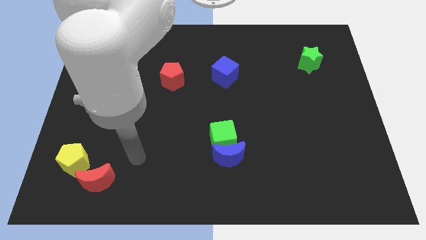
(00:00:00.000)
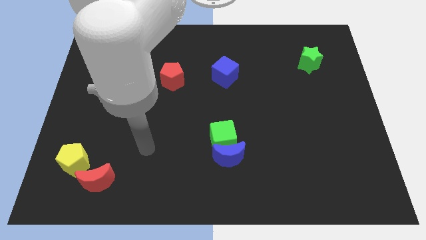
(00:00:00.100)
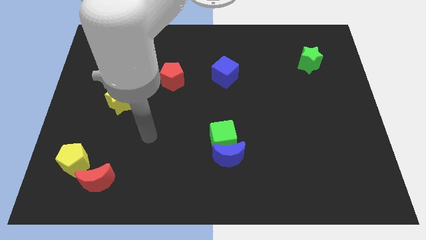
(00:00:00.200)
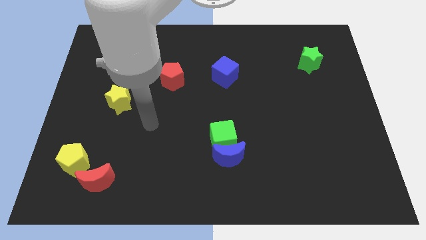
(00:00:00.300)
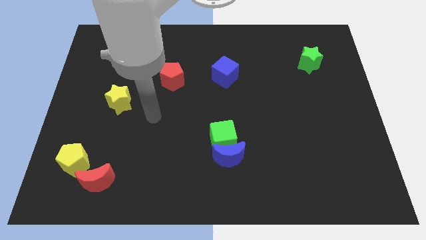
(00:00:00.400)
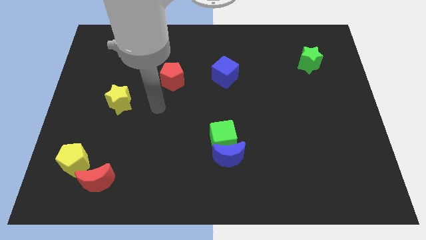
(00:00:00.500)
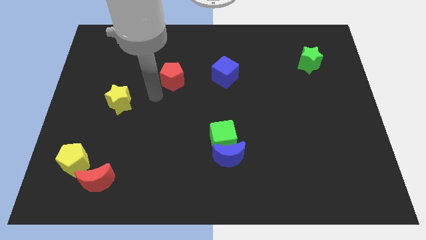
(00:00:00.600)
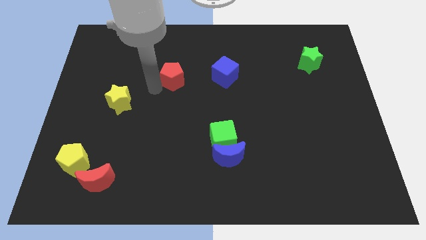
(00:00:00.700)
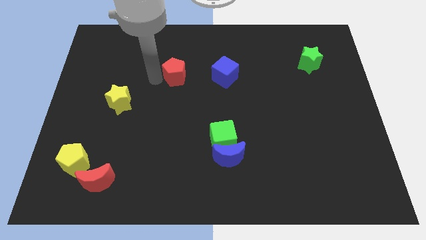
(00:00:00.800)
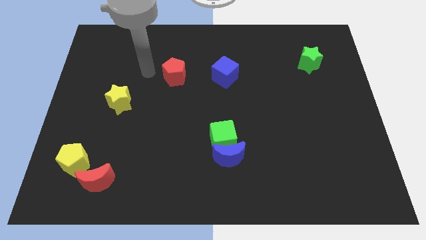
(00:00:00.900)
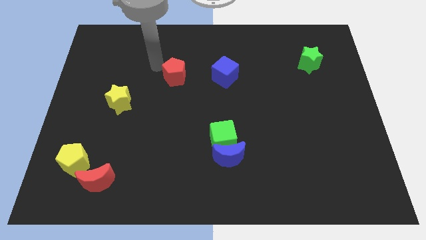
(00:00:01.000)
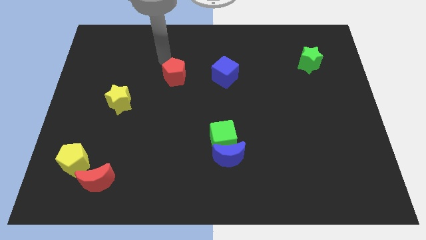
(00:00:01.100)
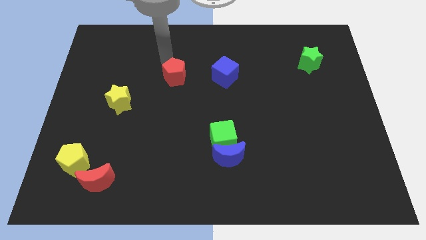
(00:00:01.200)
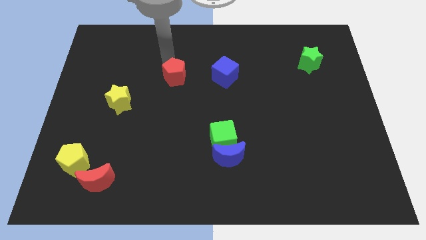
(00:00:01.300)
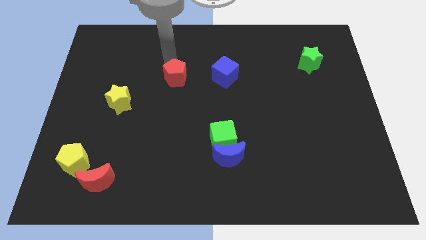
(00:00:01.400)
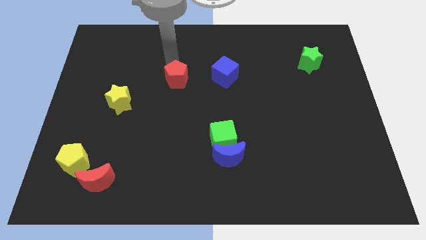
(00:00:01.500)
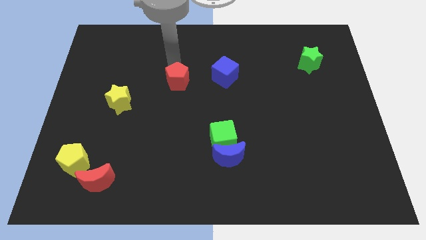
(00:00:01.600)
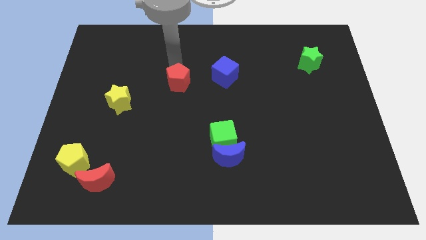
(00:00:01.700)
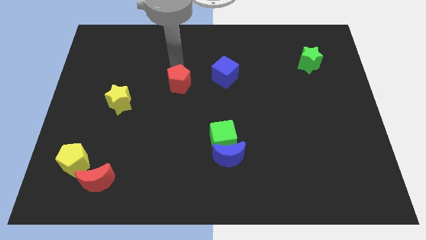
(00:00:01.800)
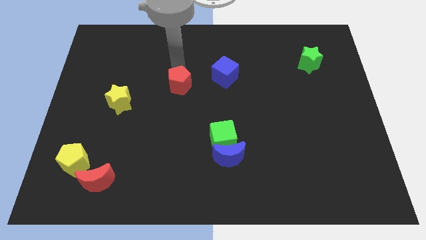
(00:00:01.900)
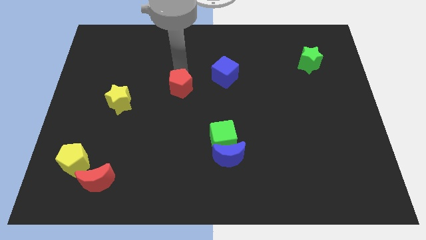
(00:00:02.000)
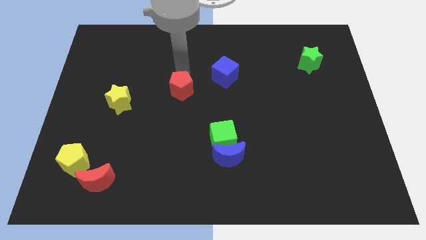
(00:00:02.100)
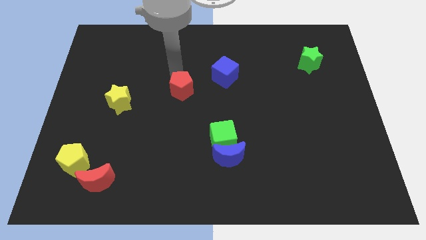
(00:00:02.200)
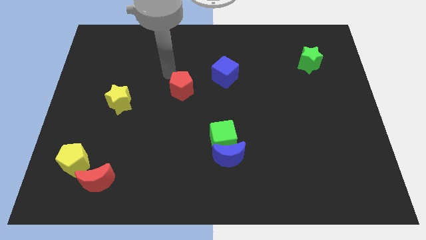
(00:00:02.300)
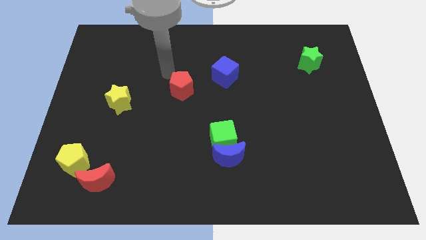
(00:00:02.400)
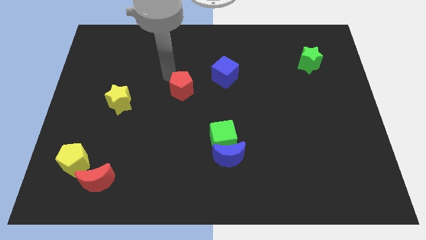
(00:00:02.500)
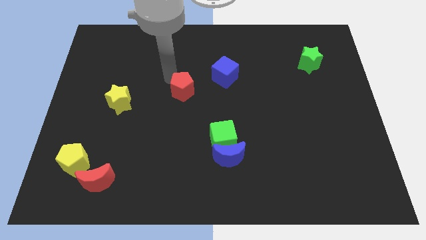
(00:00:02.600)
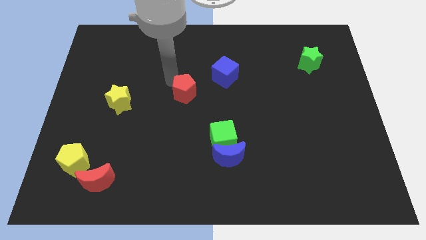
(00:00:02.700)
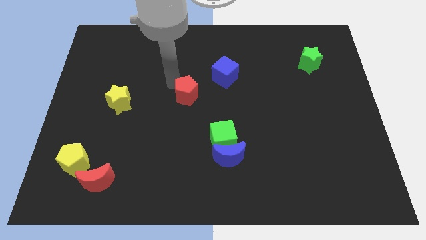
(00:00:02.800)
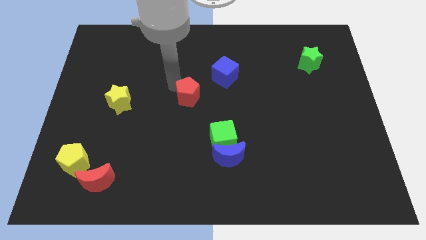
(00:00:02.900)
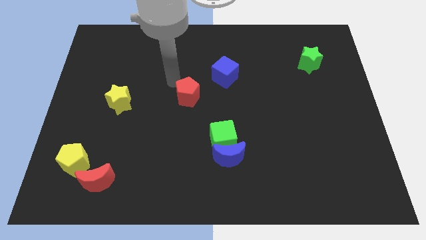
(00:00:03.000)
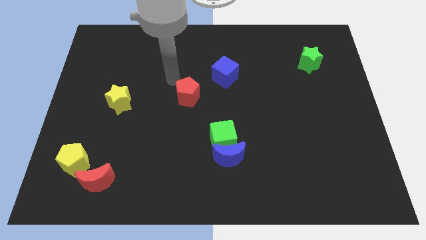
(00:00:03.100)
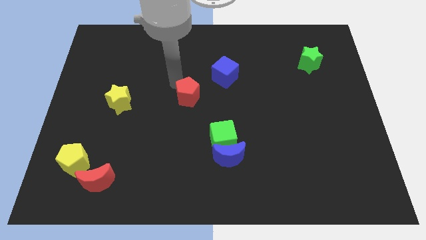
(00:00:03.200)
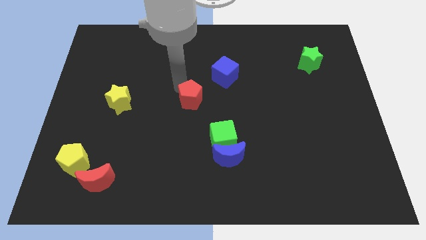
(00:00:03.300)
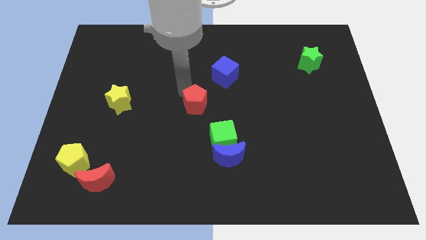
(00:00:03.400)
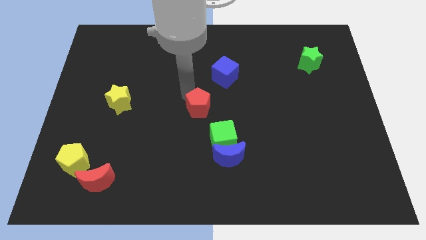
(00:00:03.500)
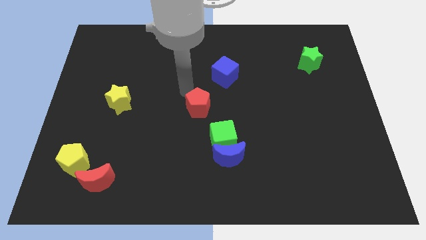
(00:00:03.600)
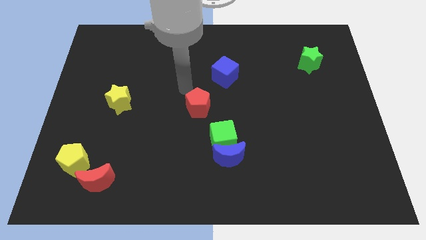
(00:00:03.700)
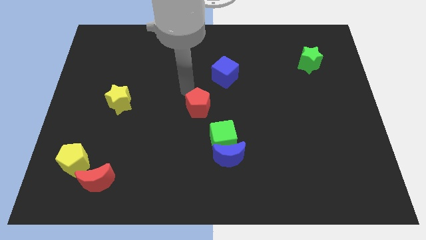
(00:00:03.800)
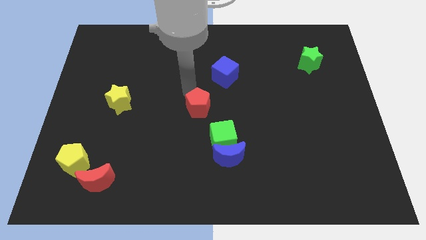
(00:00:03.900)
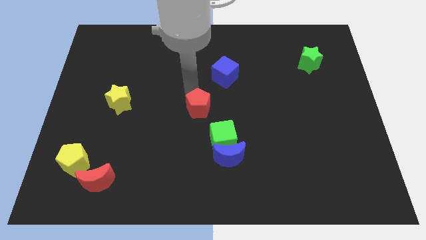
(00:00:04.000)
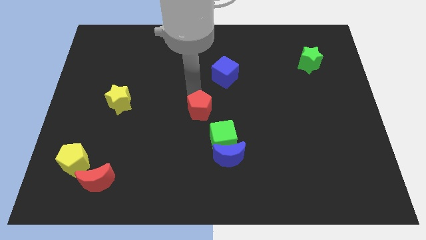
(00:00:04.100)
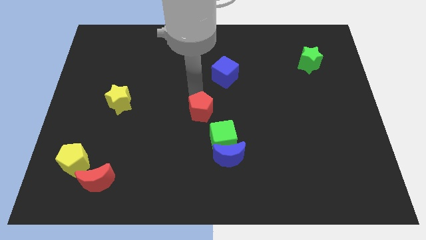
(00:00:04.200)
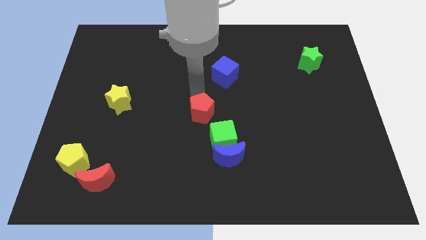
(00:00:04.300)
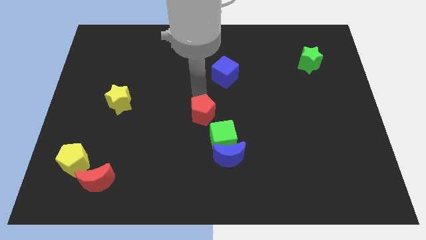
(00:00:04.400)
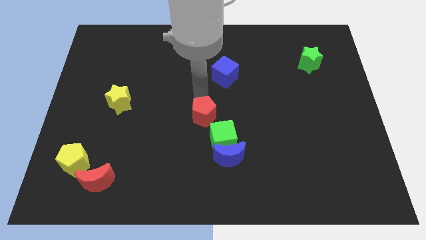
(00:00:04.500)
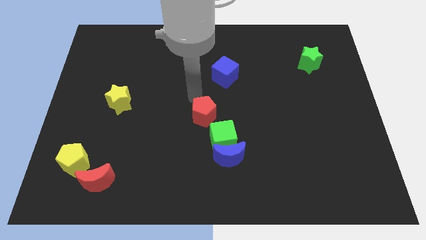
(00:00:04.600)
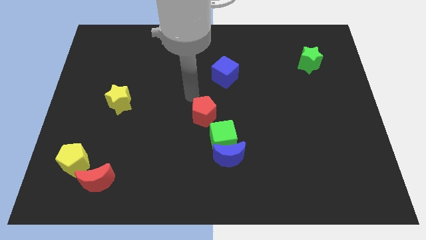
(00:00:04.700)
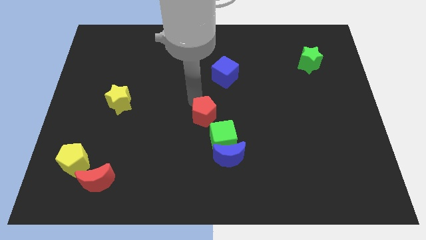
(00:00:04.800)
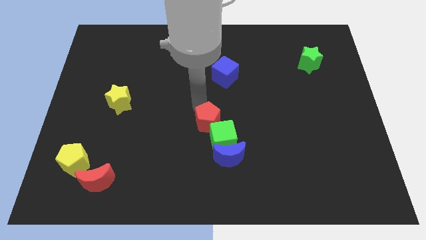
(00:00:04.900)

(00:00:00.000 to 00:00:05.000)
slide the red pentagon to the green cube

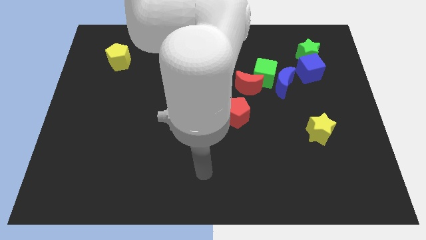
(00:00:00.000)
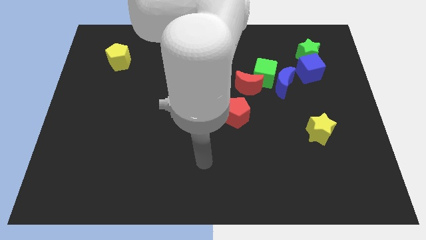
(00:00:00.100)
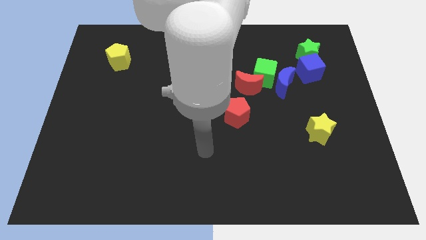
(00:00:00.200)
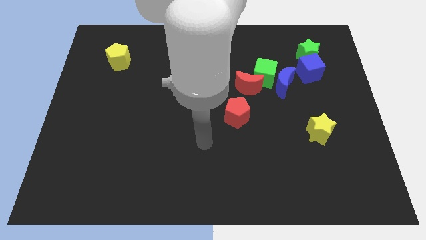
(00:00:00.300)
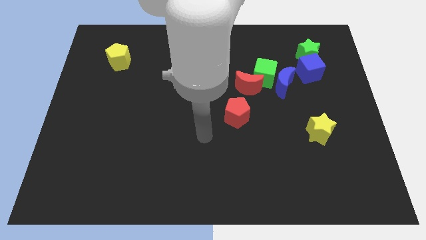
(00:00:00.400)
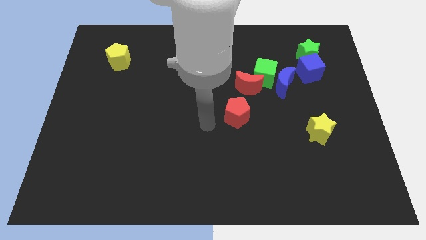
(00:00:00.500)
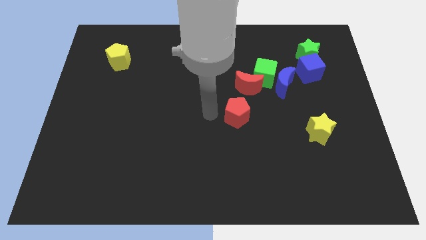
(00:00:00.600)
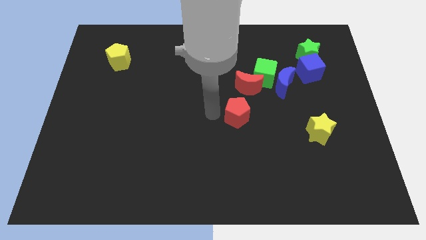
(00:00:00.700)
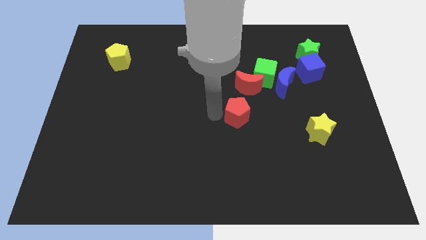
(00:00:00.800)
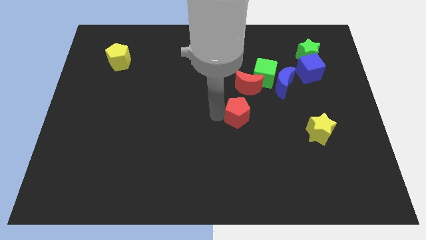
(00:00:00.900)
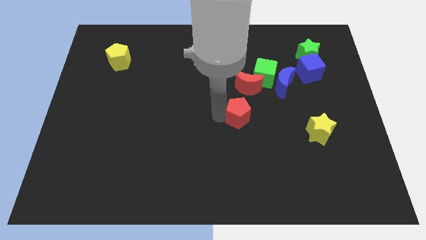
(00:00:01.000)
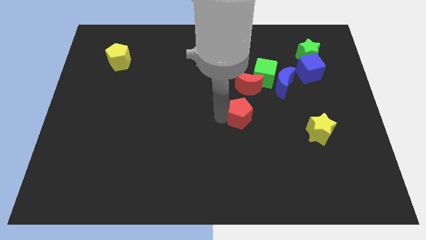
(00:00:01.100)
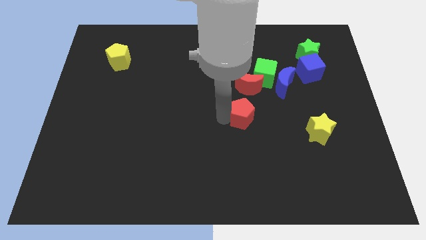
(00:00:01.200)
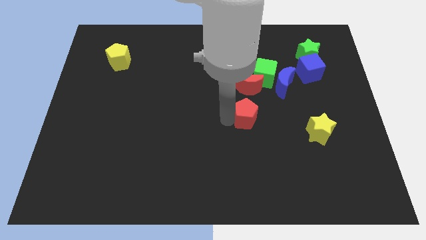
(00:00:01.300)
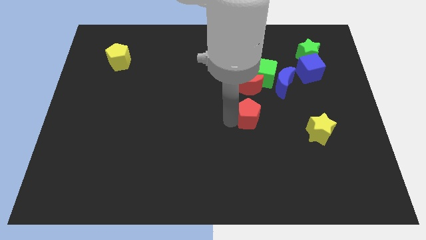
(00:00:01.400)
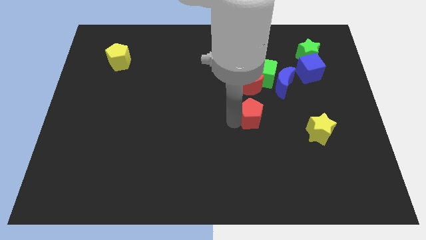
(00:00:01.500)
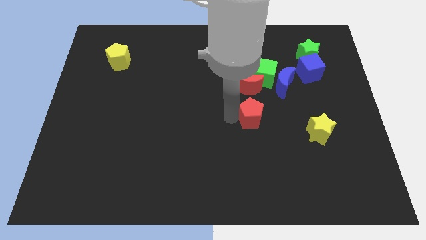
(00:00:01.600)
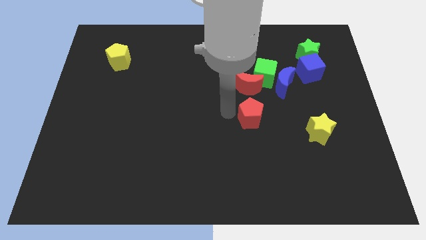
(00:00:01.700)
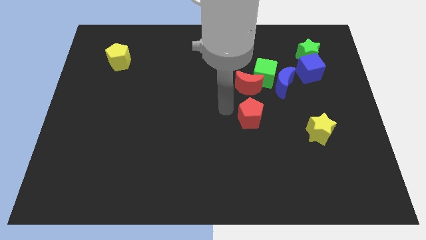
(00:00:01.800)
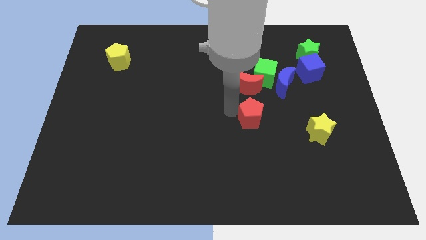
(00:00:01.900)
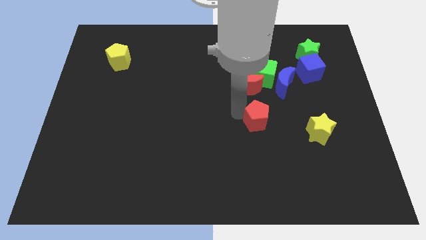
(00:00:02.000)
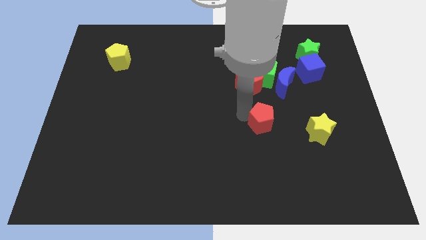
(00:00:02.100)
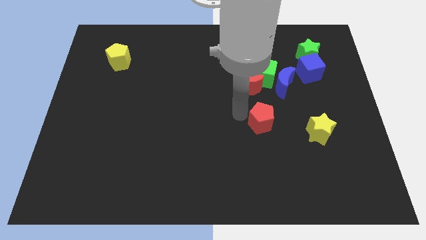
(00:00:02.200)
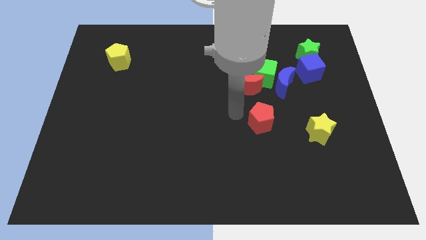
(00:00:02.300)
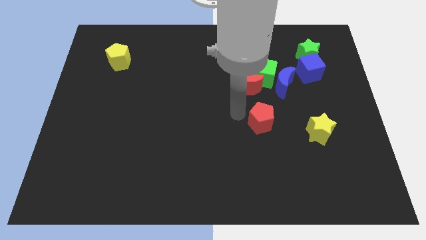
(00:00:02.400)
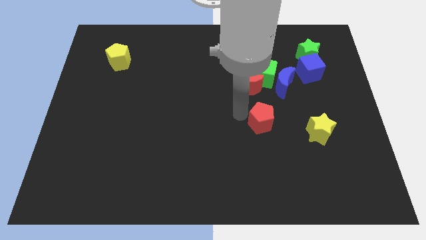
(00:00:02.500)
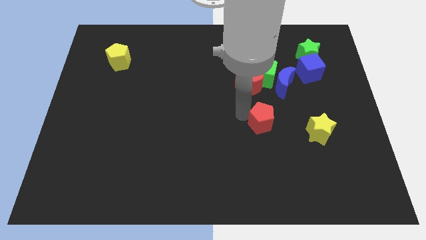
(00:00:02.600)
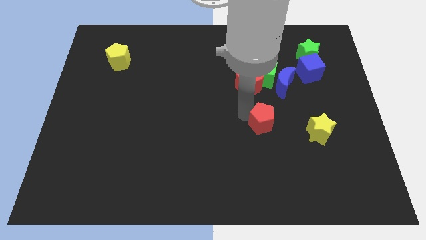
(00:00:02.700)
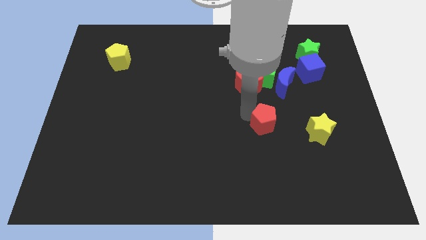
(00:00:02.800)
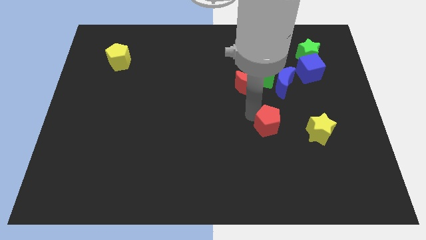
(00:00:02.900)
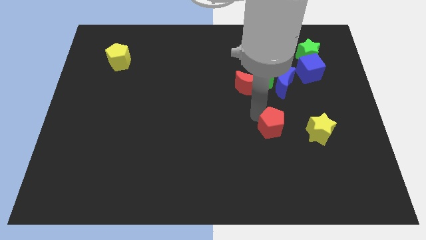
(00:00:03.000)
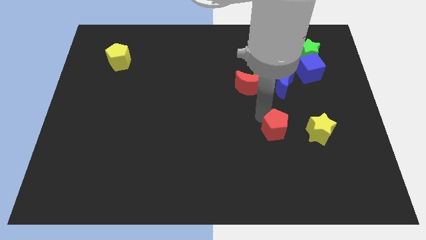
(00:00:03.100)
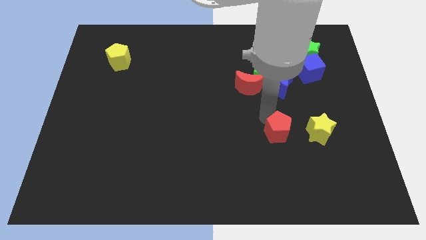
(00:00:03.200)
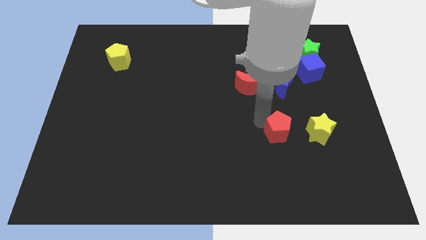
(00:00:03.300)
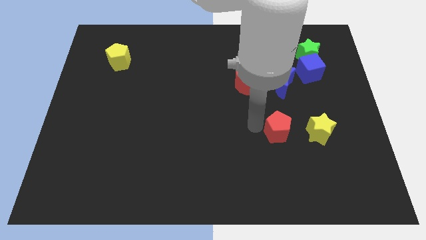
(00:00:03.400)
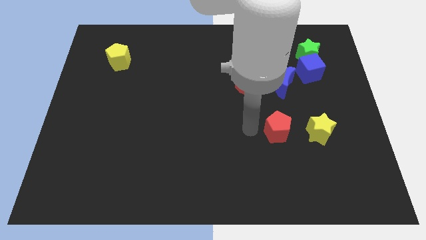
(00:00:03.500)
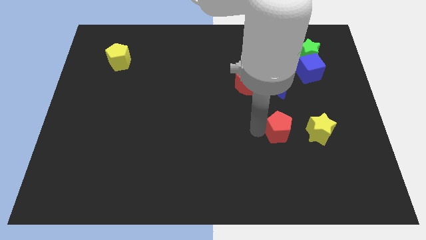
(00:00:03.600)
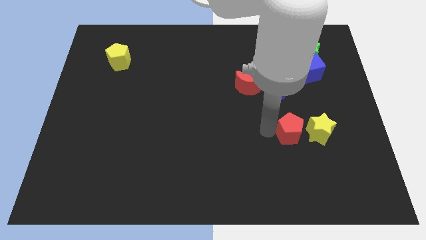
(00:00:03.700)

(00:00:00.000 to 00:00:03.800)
move the red pentagon towards the yellow star
